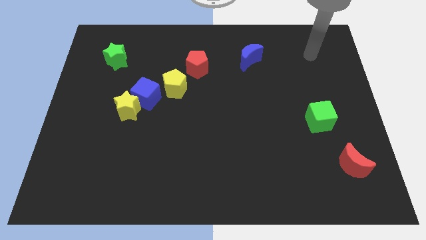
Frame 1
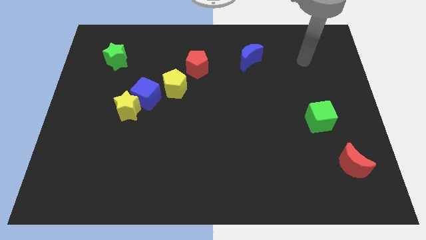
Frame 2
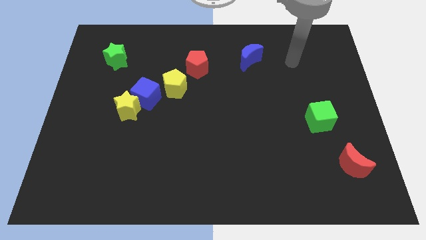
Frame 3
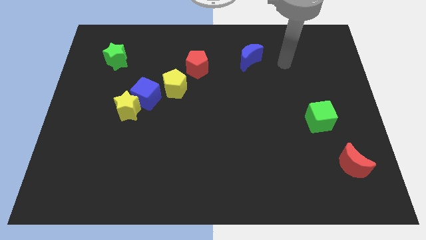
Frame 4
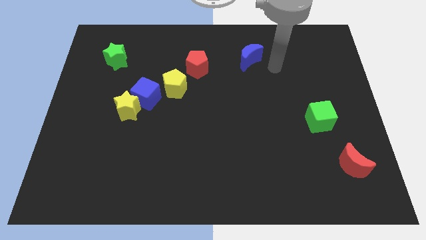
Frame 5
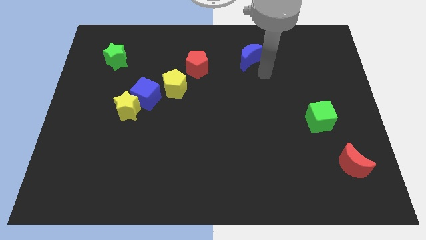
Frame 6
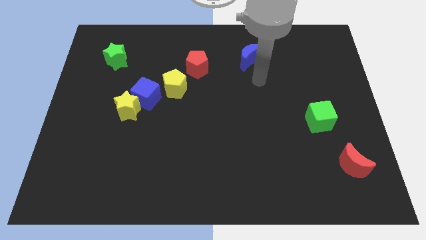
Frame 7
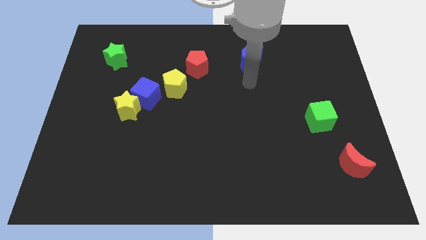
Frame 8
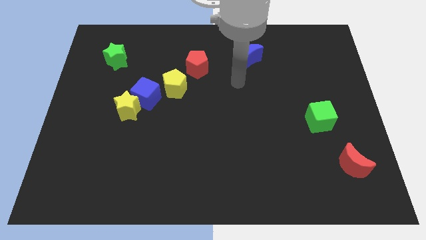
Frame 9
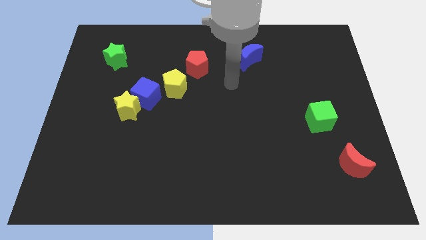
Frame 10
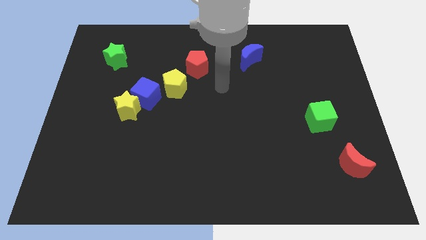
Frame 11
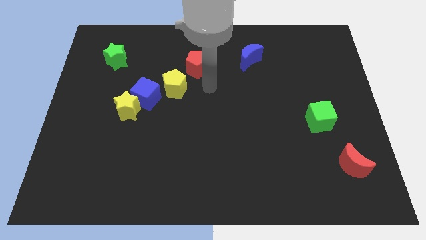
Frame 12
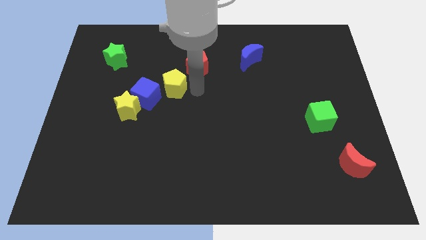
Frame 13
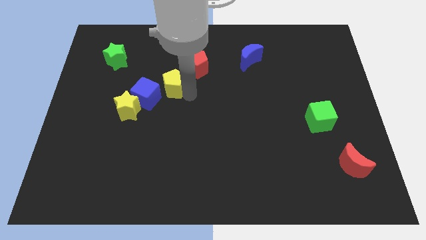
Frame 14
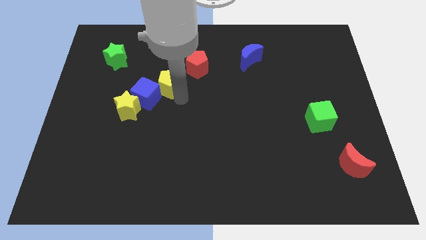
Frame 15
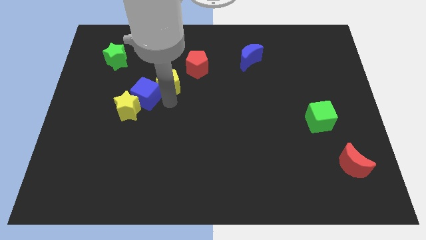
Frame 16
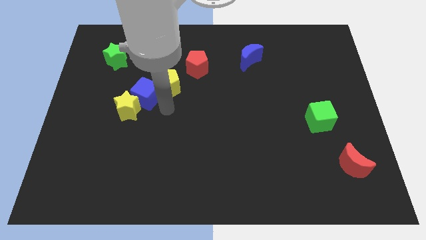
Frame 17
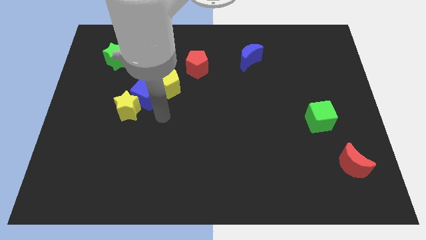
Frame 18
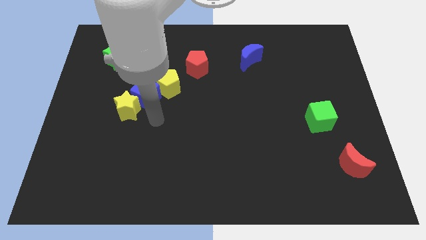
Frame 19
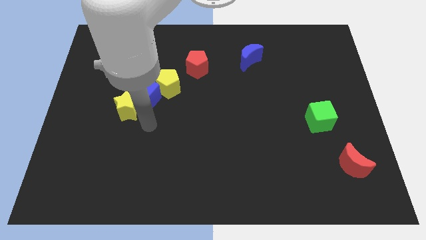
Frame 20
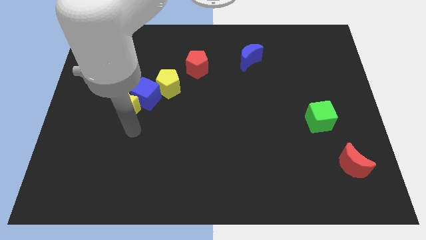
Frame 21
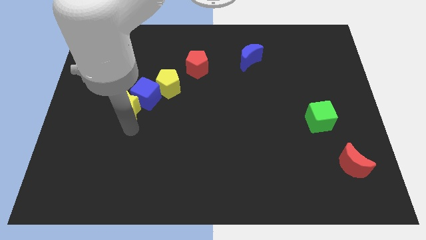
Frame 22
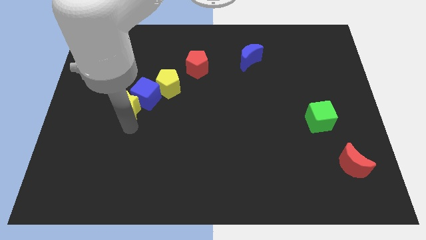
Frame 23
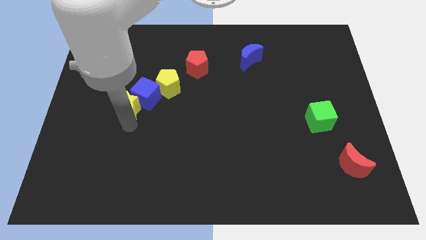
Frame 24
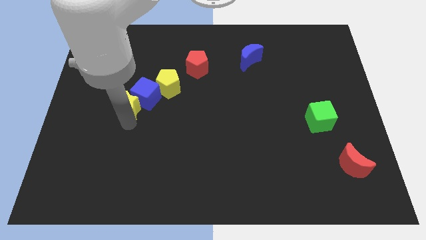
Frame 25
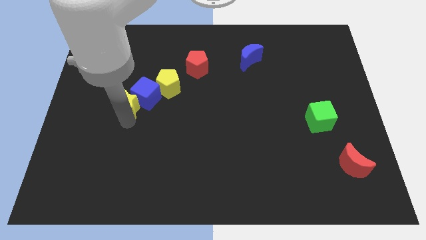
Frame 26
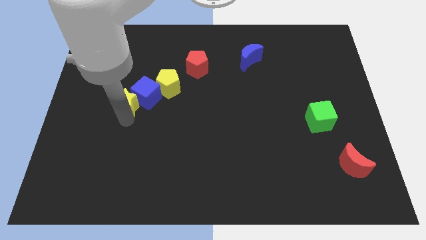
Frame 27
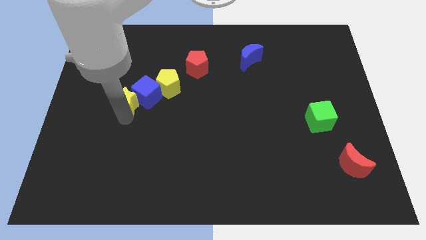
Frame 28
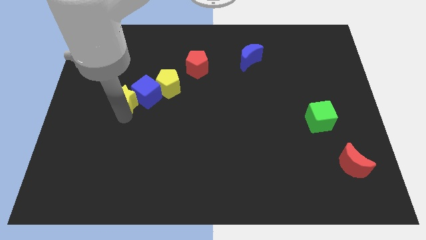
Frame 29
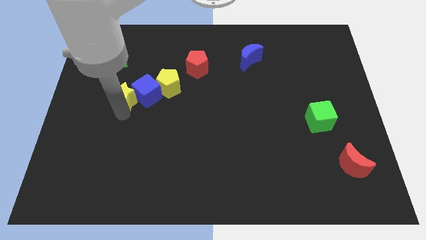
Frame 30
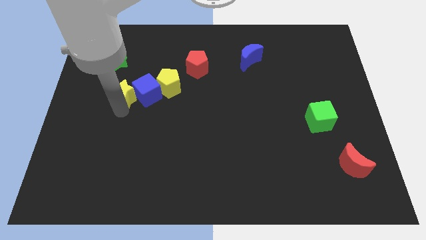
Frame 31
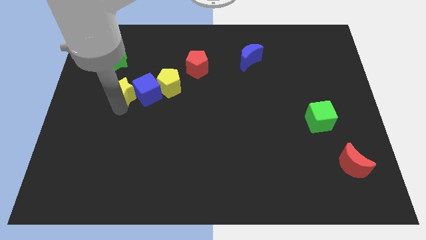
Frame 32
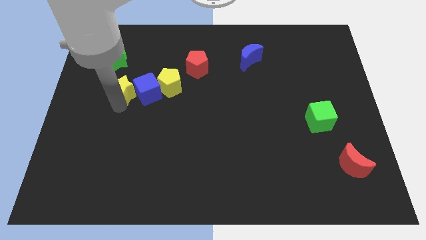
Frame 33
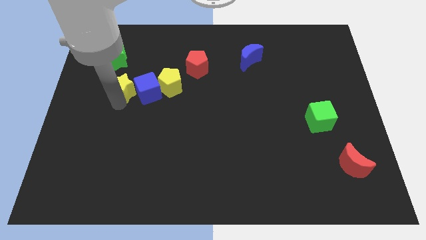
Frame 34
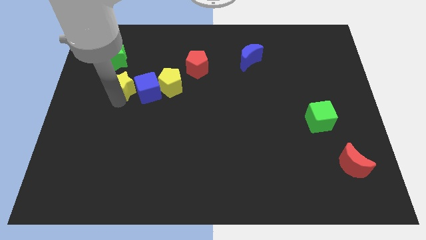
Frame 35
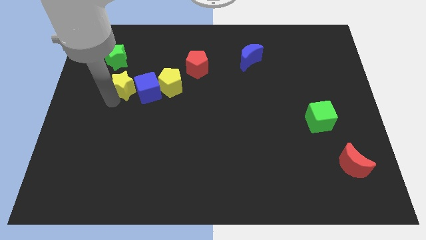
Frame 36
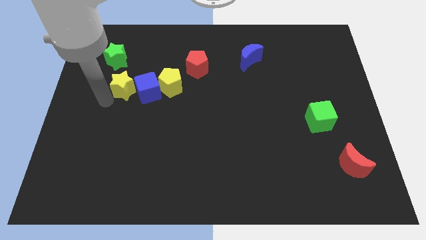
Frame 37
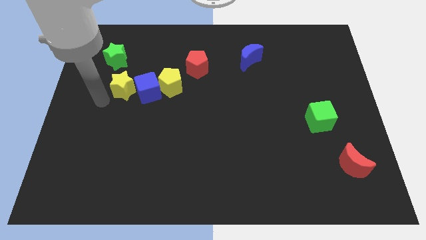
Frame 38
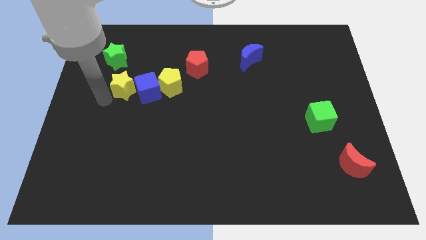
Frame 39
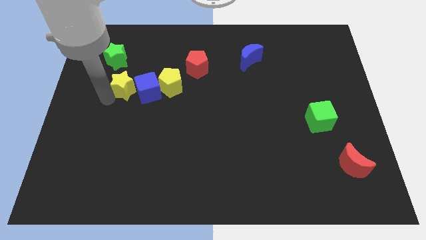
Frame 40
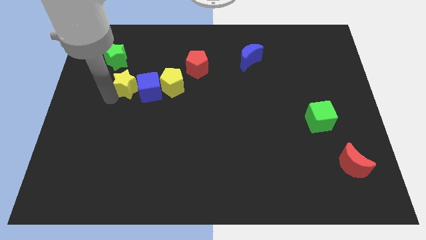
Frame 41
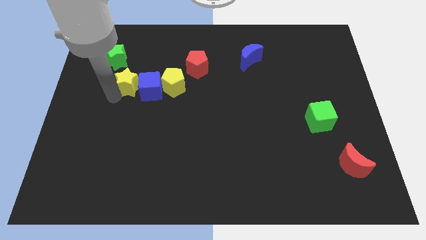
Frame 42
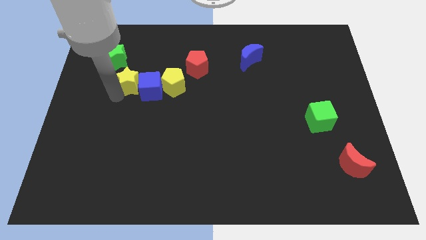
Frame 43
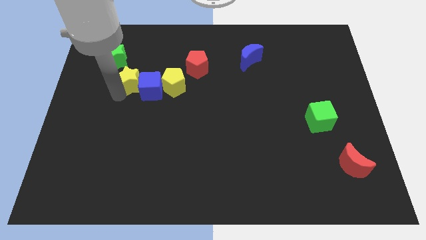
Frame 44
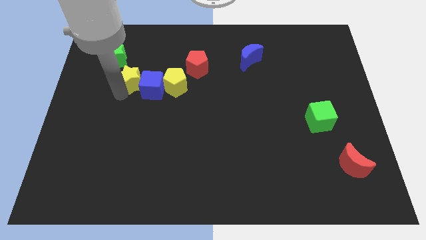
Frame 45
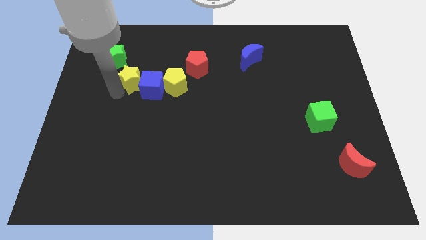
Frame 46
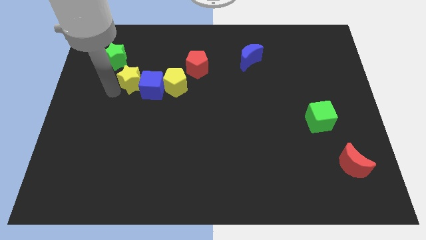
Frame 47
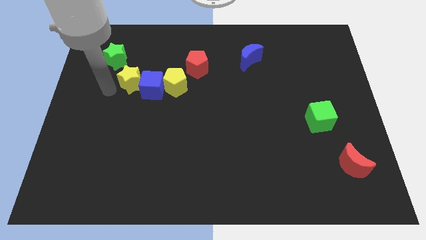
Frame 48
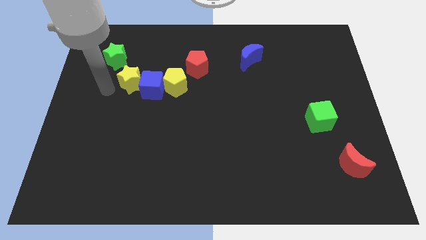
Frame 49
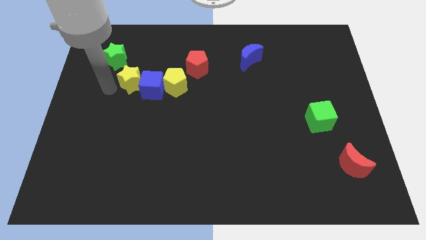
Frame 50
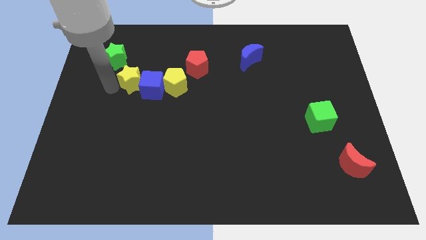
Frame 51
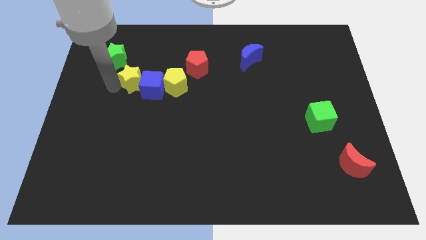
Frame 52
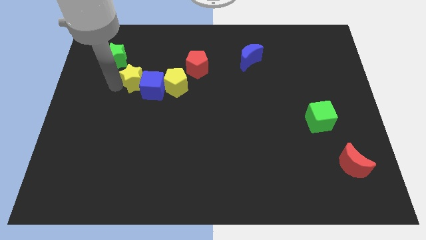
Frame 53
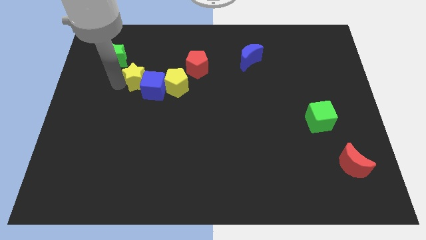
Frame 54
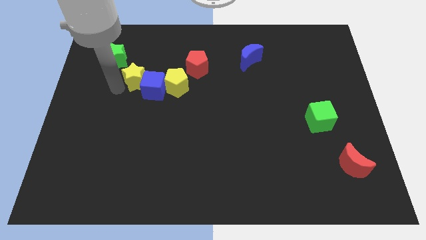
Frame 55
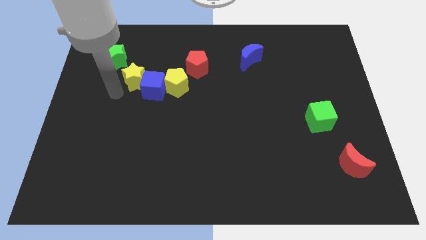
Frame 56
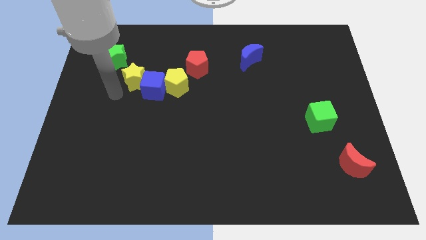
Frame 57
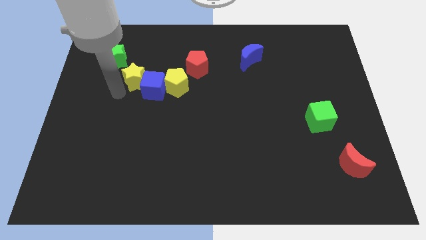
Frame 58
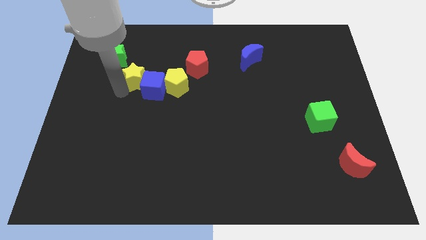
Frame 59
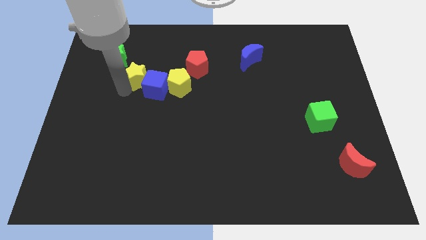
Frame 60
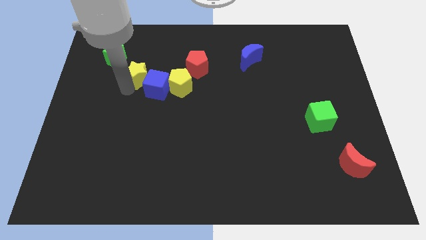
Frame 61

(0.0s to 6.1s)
slide the yellow star left of the red pentagon

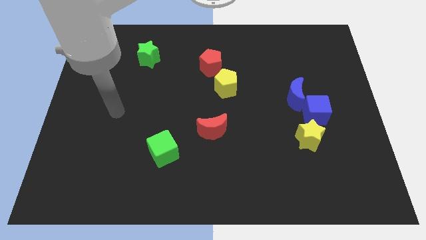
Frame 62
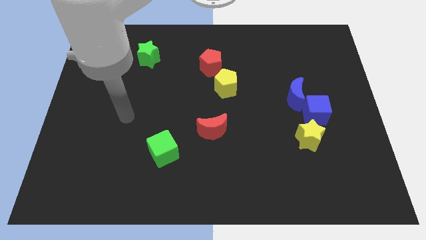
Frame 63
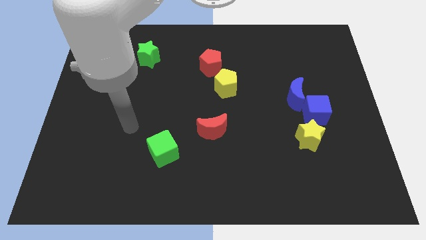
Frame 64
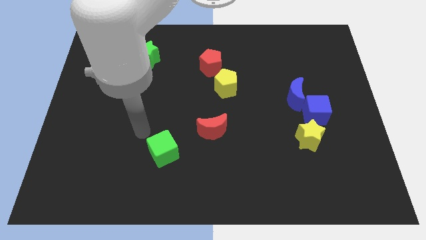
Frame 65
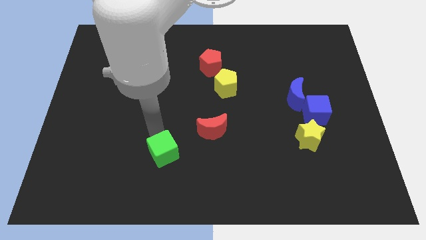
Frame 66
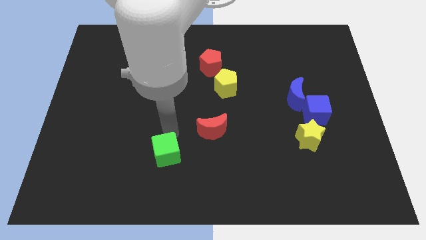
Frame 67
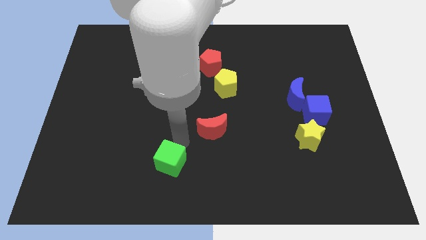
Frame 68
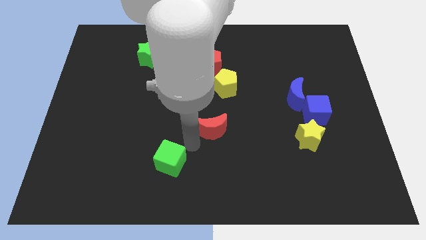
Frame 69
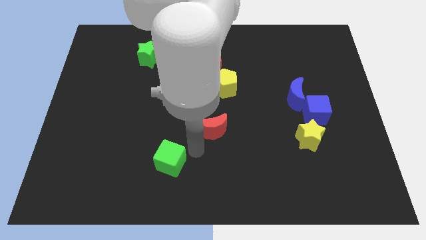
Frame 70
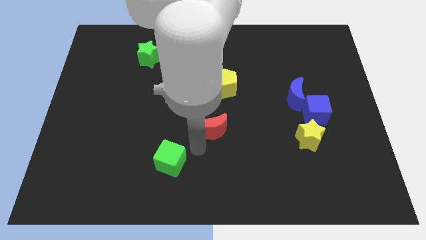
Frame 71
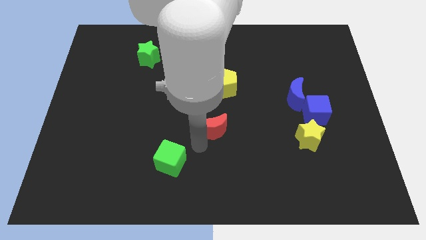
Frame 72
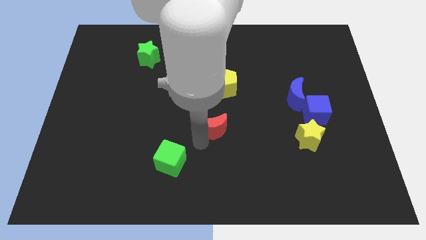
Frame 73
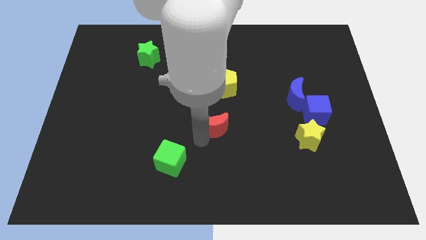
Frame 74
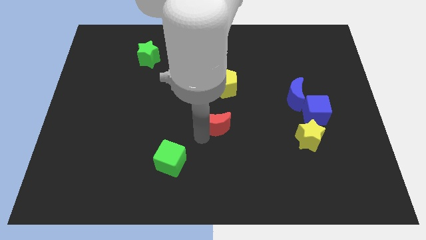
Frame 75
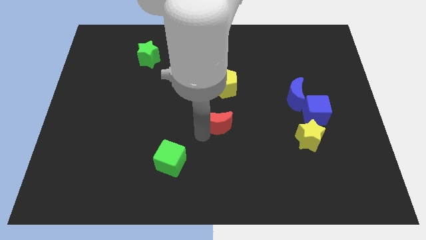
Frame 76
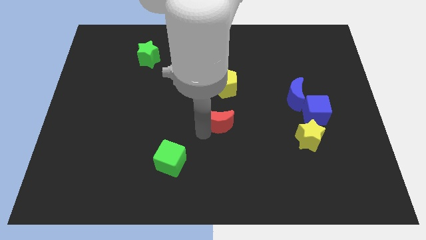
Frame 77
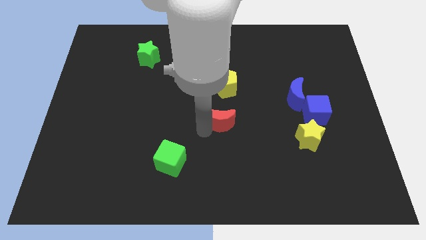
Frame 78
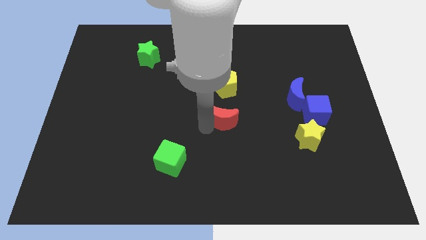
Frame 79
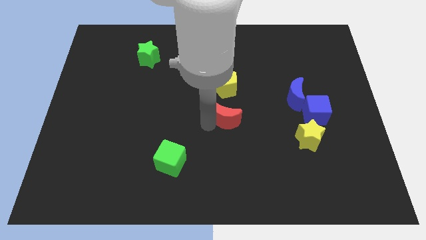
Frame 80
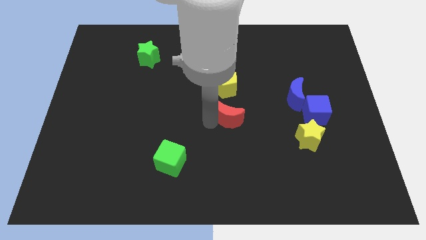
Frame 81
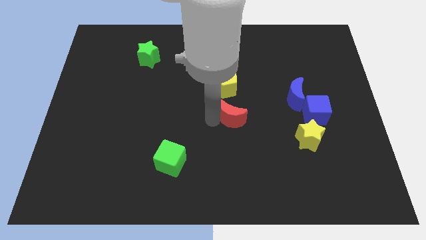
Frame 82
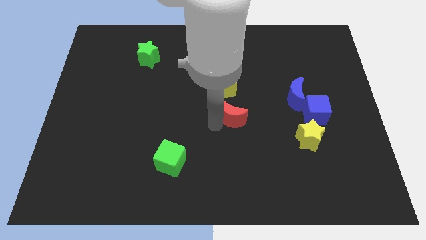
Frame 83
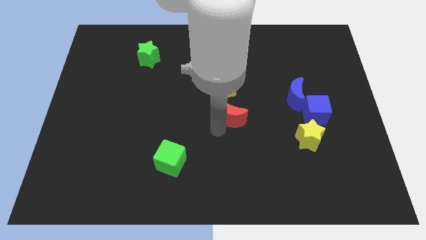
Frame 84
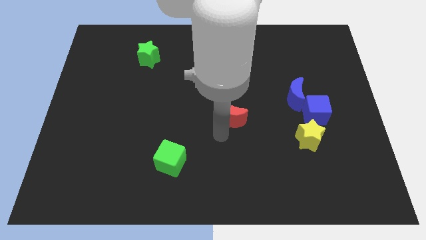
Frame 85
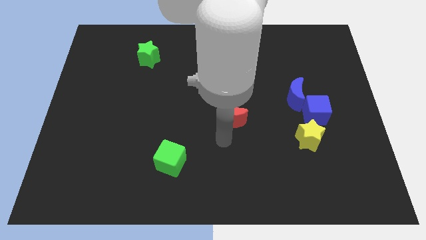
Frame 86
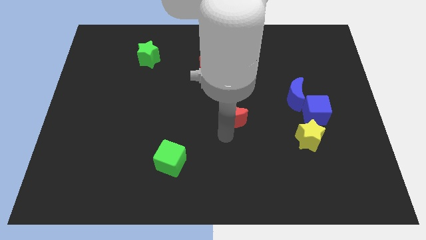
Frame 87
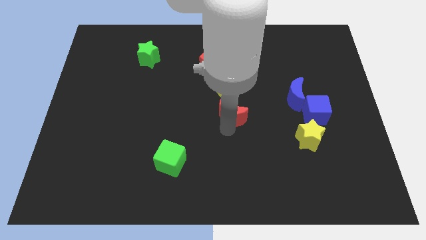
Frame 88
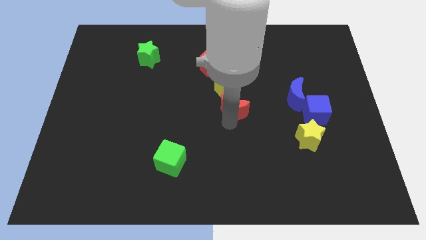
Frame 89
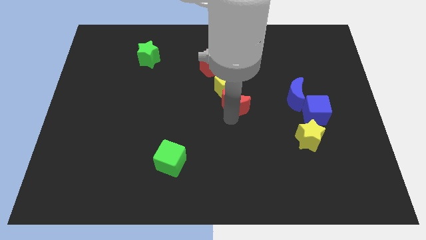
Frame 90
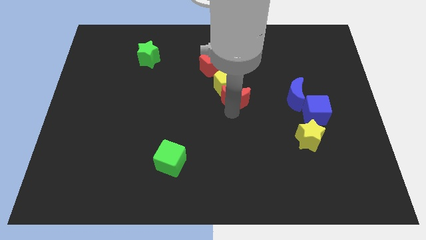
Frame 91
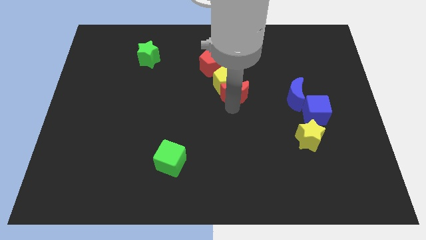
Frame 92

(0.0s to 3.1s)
slide the red moon diagonally down and to the right of the red pentagon
